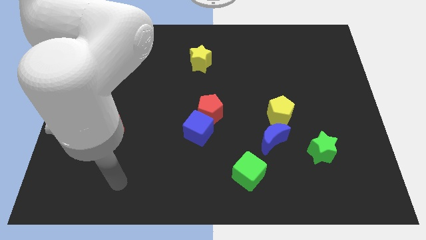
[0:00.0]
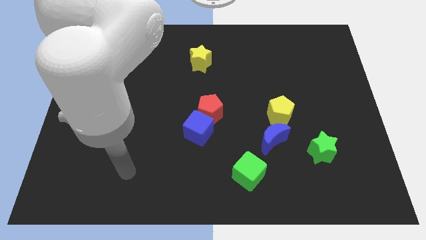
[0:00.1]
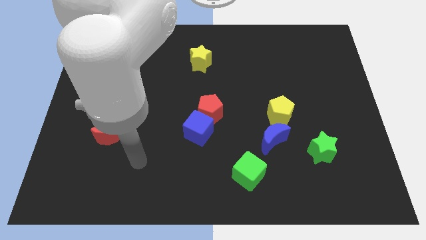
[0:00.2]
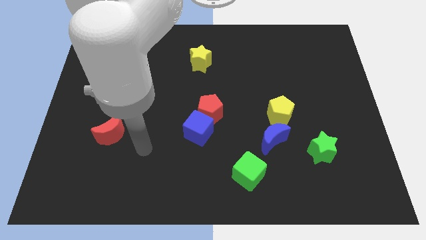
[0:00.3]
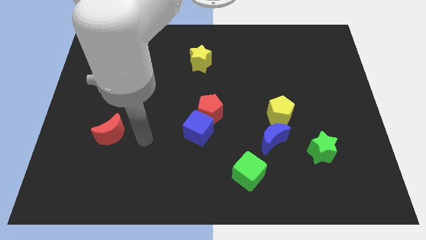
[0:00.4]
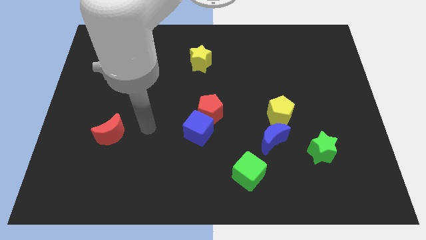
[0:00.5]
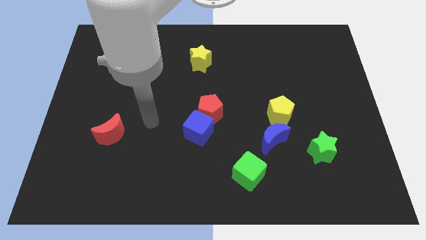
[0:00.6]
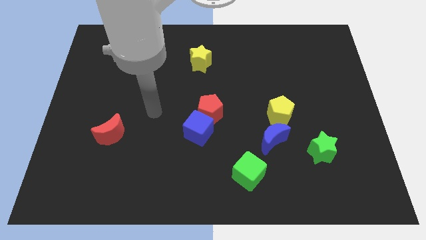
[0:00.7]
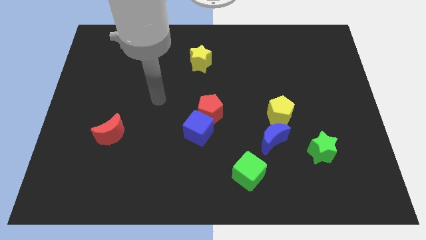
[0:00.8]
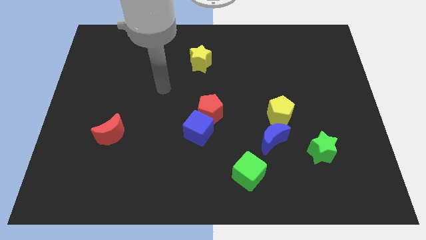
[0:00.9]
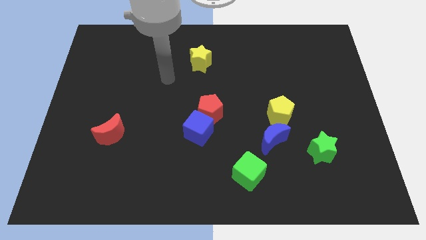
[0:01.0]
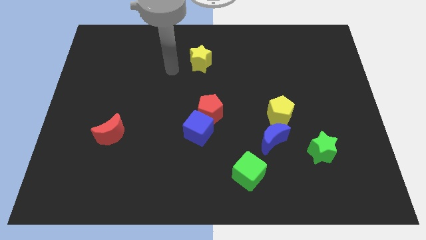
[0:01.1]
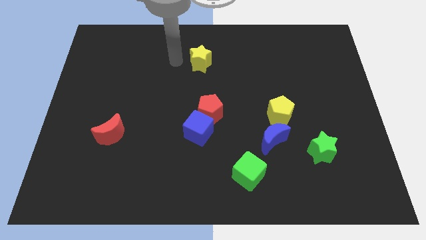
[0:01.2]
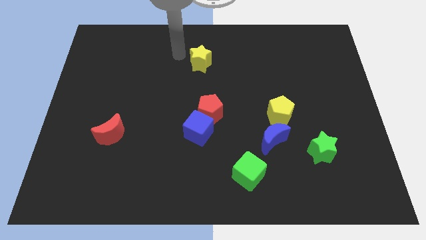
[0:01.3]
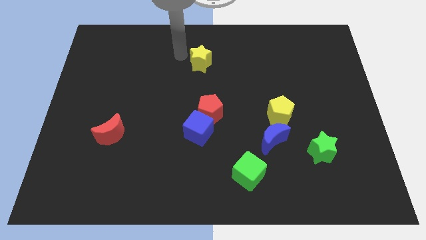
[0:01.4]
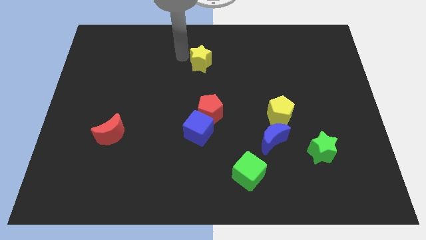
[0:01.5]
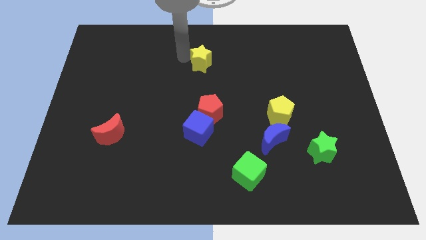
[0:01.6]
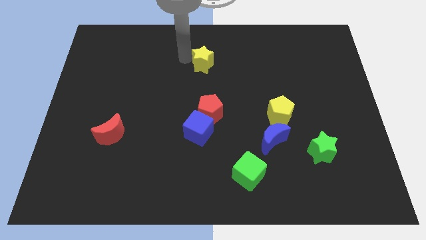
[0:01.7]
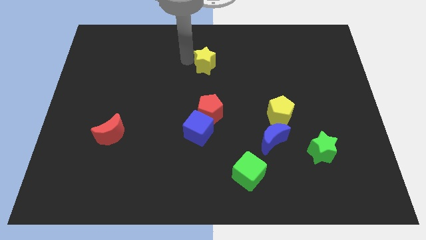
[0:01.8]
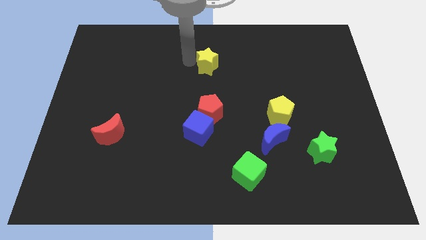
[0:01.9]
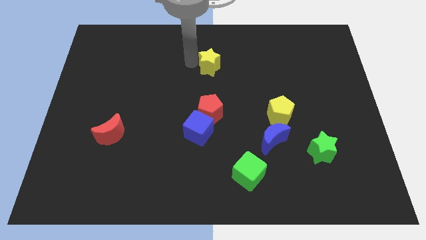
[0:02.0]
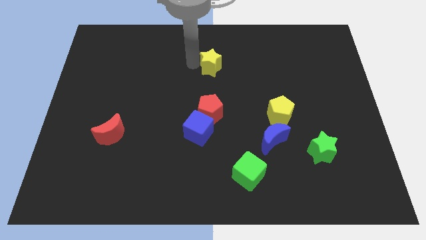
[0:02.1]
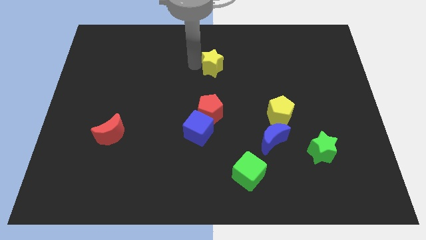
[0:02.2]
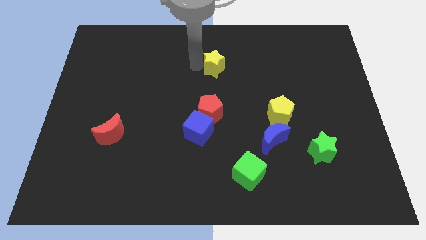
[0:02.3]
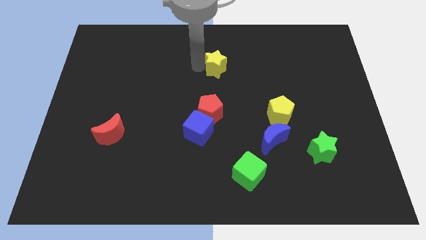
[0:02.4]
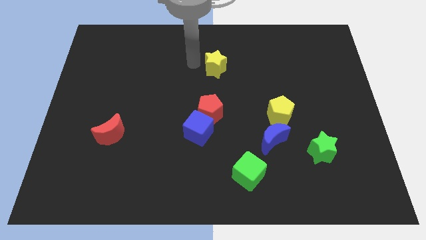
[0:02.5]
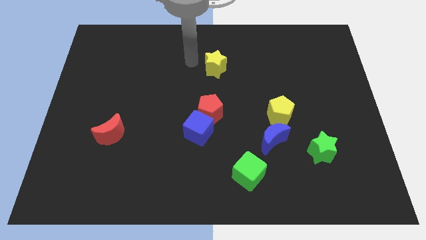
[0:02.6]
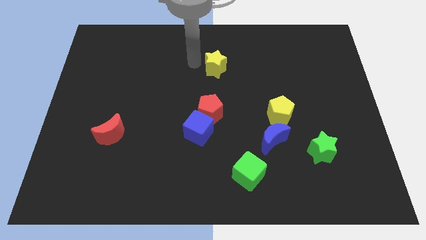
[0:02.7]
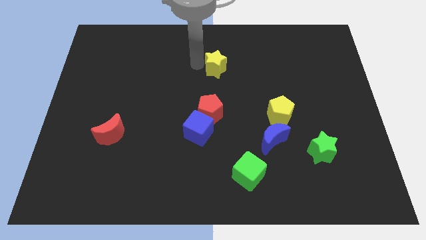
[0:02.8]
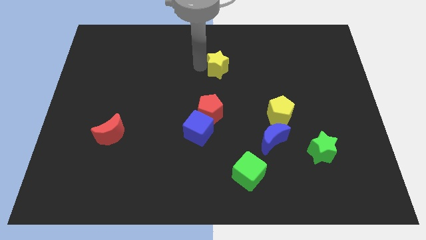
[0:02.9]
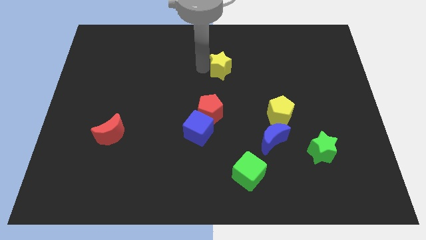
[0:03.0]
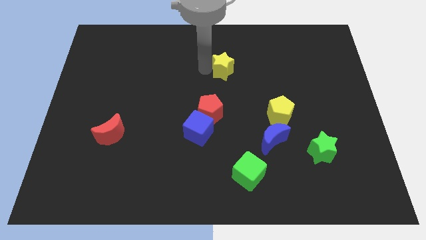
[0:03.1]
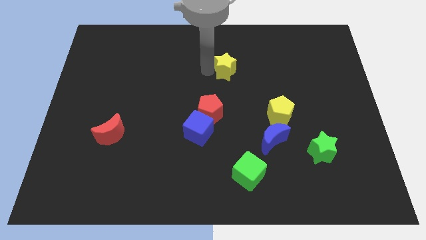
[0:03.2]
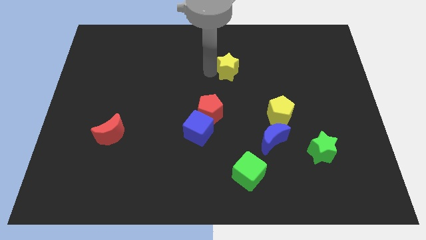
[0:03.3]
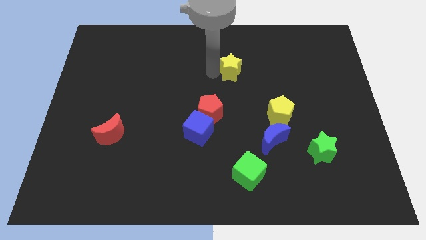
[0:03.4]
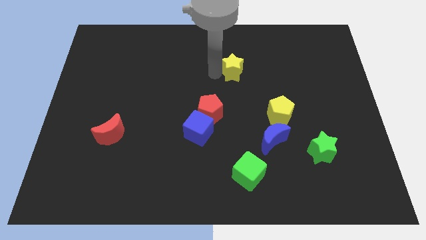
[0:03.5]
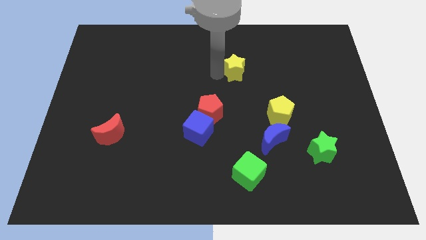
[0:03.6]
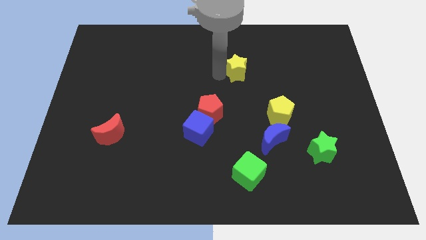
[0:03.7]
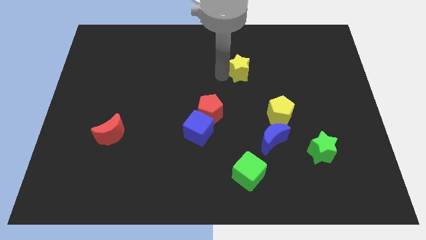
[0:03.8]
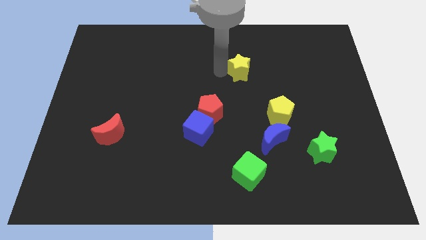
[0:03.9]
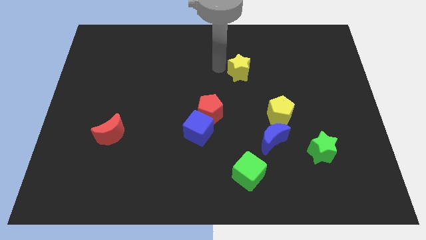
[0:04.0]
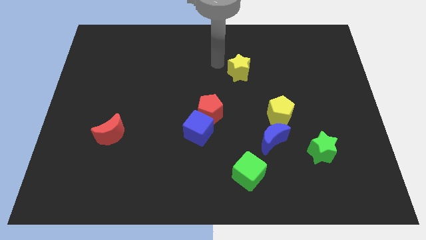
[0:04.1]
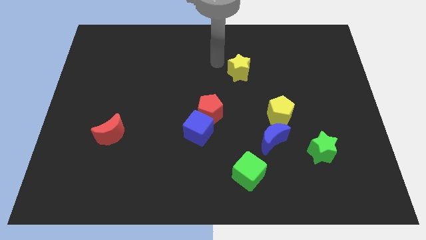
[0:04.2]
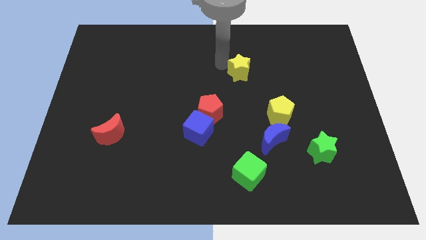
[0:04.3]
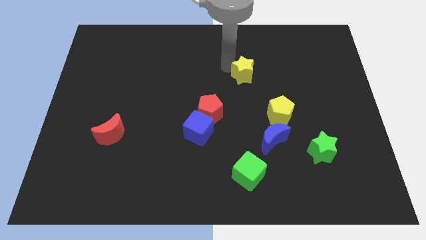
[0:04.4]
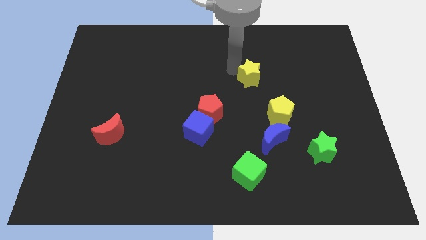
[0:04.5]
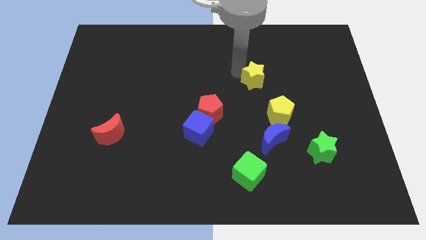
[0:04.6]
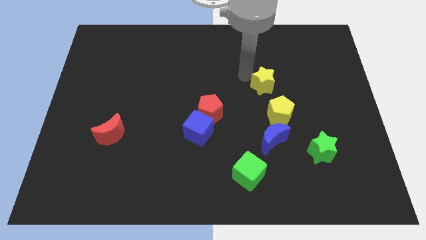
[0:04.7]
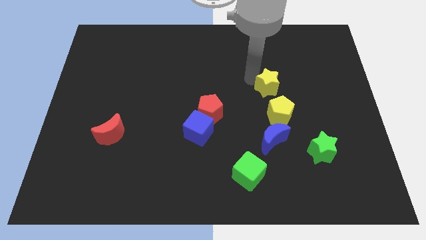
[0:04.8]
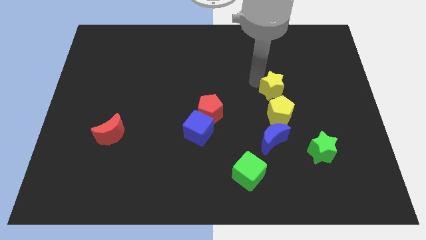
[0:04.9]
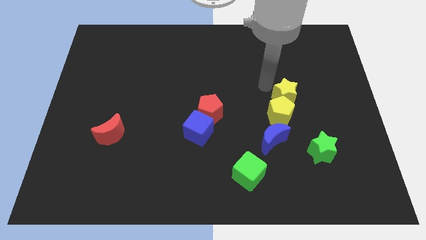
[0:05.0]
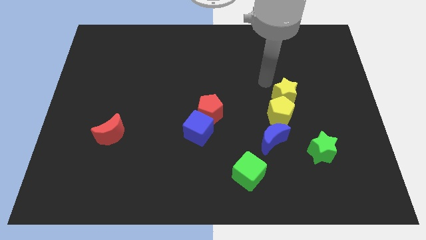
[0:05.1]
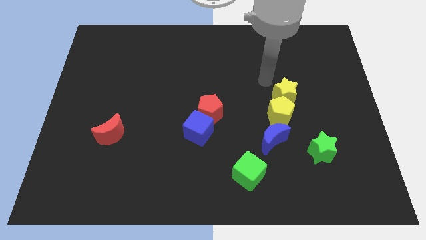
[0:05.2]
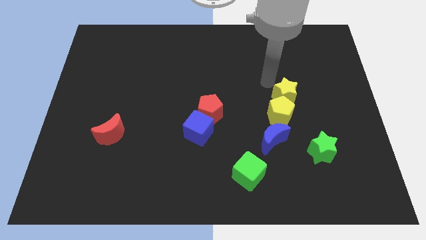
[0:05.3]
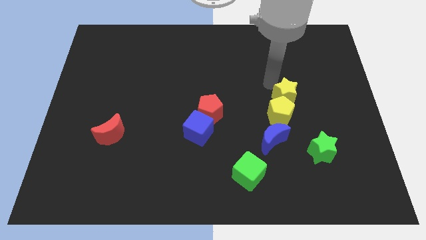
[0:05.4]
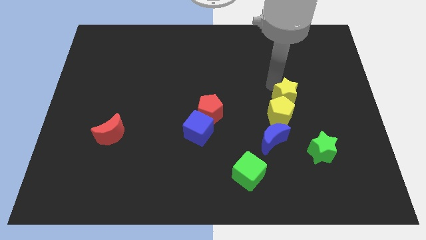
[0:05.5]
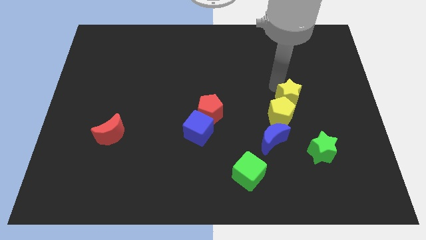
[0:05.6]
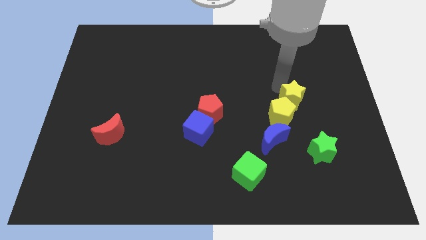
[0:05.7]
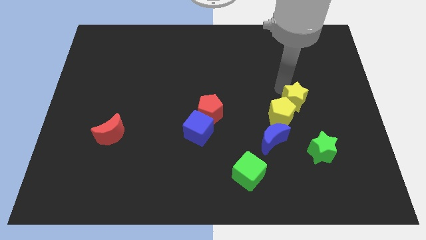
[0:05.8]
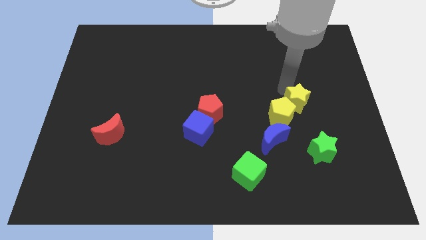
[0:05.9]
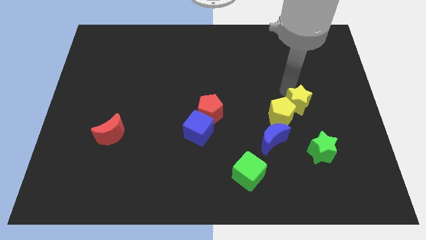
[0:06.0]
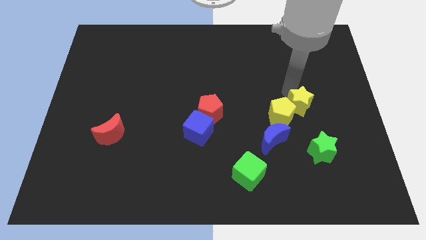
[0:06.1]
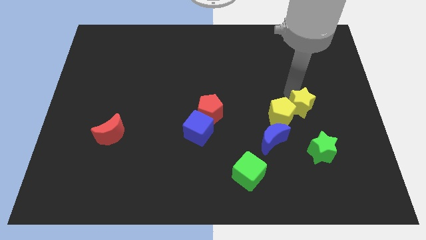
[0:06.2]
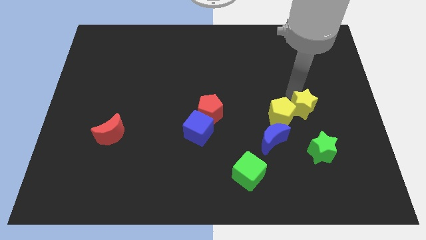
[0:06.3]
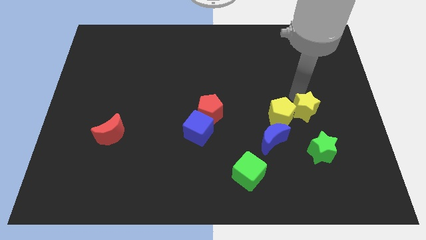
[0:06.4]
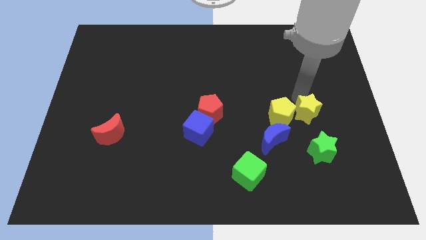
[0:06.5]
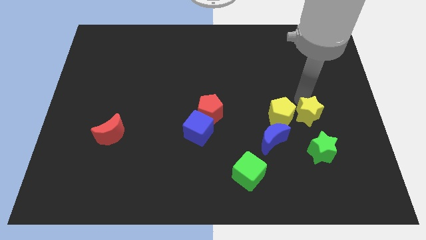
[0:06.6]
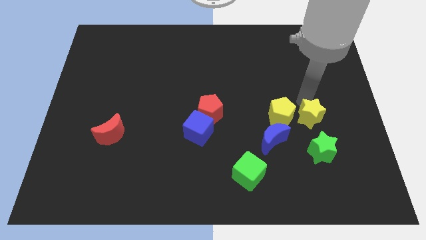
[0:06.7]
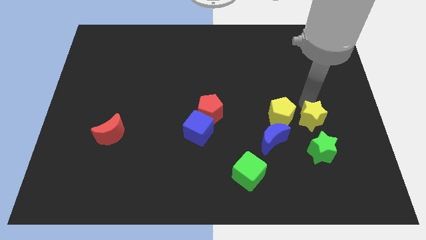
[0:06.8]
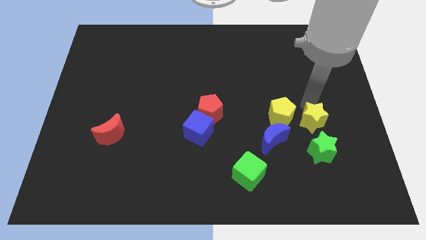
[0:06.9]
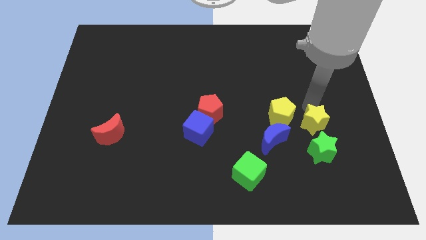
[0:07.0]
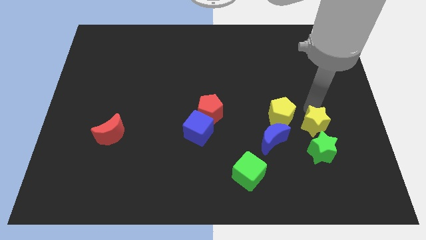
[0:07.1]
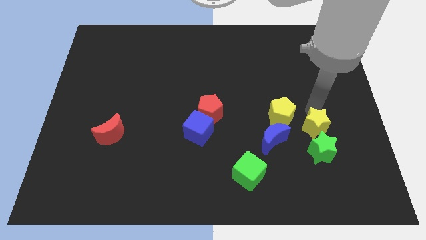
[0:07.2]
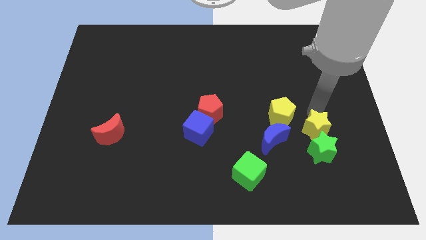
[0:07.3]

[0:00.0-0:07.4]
move the yellow star towards the green star

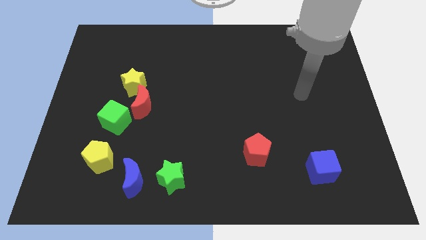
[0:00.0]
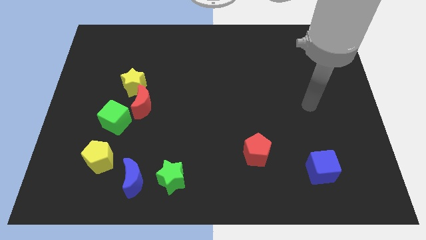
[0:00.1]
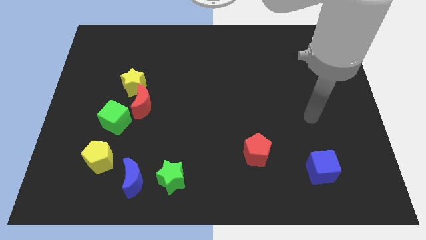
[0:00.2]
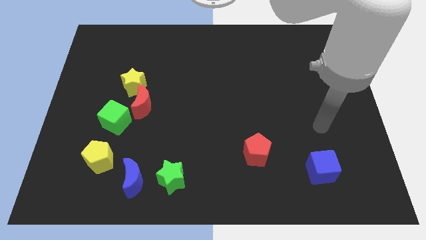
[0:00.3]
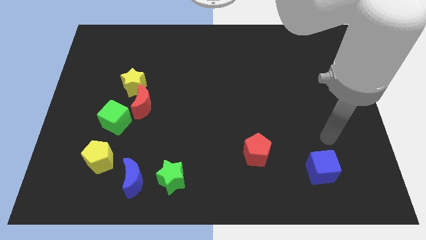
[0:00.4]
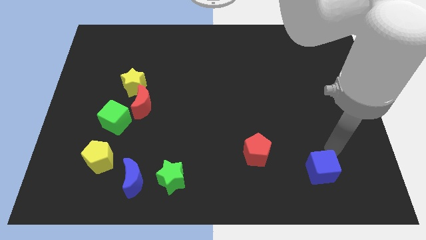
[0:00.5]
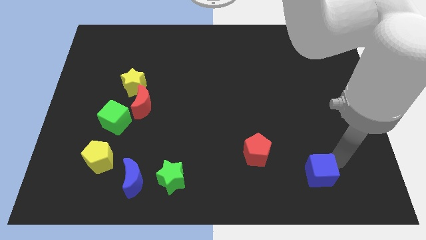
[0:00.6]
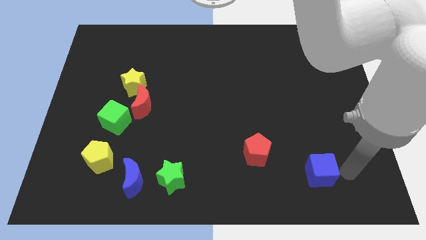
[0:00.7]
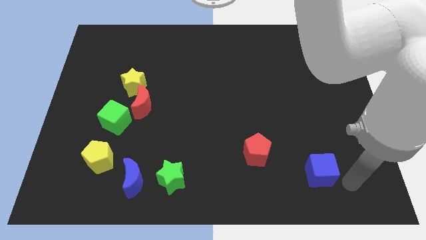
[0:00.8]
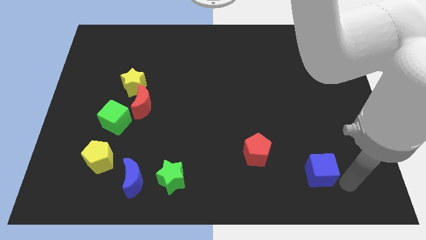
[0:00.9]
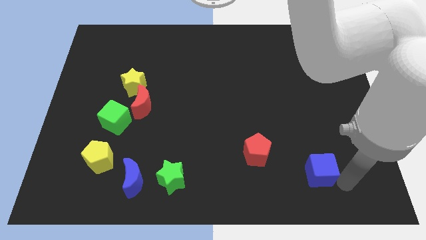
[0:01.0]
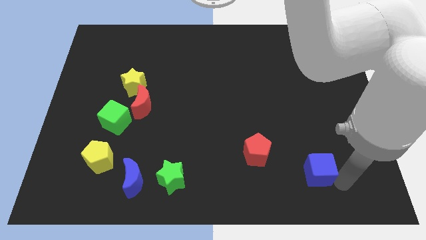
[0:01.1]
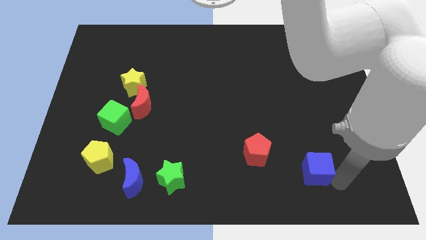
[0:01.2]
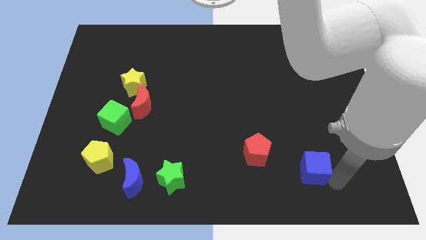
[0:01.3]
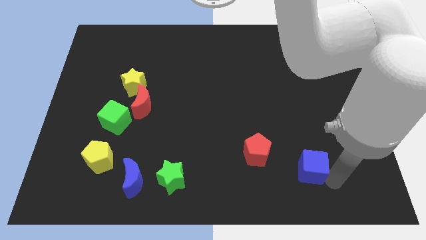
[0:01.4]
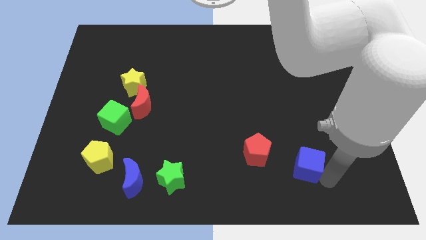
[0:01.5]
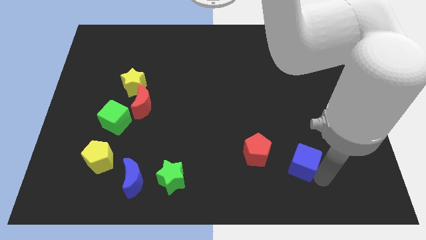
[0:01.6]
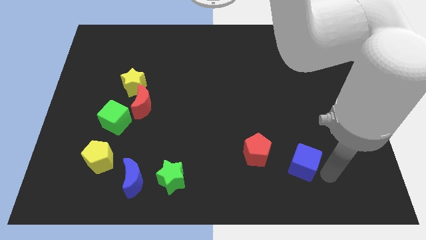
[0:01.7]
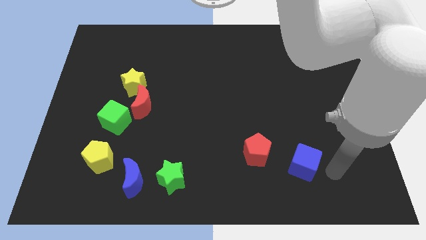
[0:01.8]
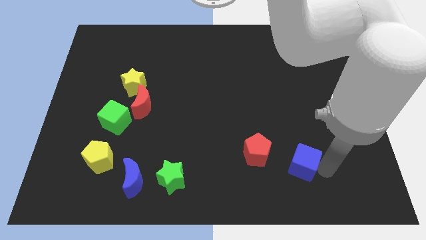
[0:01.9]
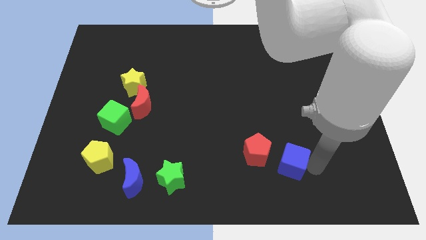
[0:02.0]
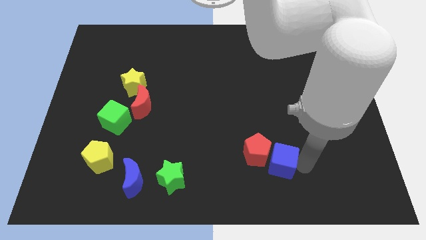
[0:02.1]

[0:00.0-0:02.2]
slide the blue cube close to the red pentagon
